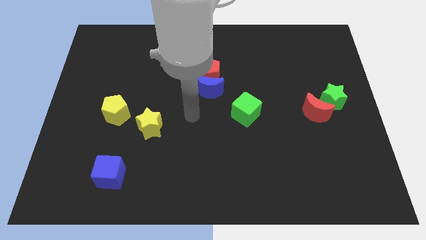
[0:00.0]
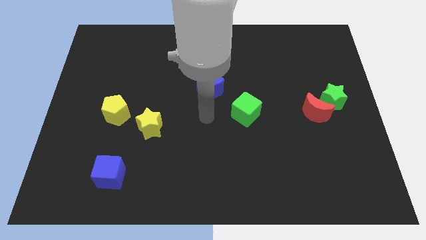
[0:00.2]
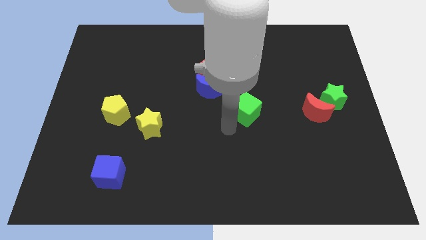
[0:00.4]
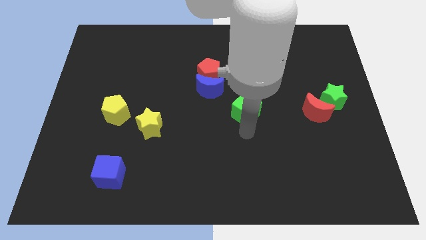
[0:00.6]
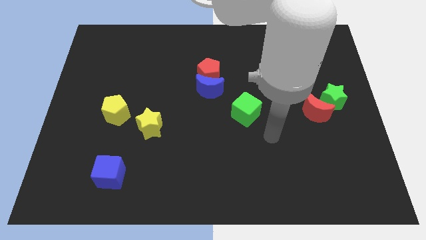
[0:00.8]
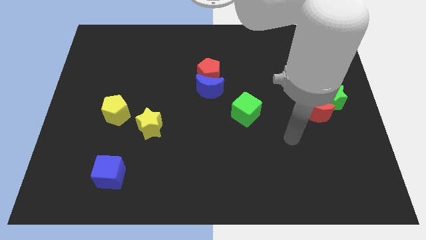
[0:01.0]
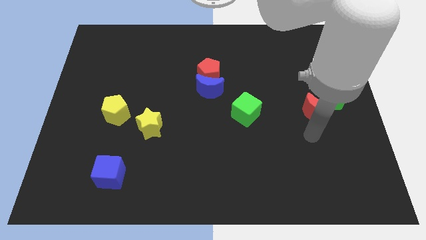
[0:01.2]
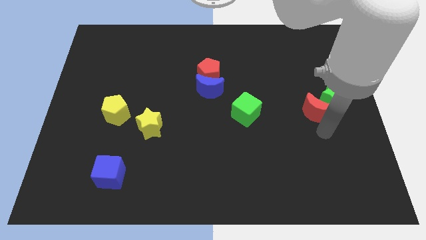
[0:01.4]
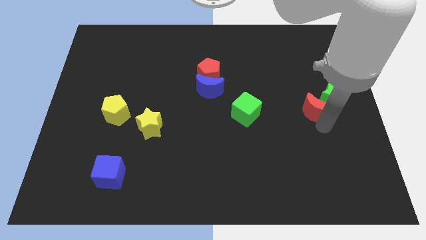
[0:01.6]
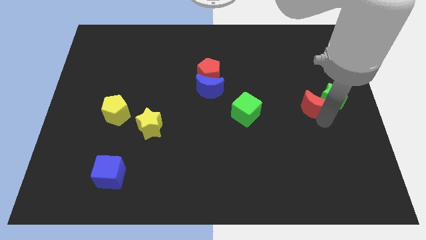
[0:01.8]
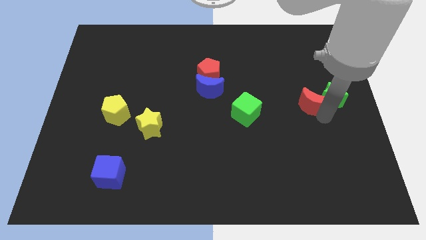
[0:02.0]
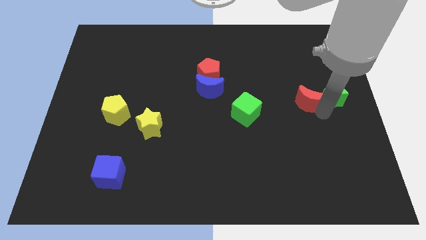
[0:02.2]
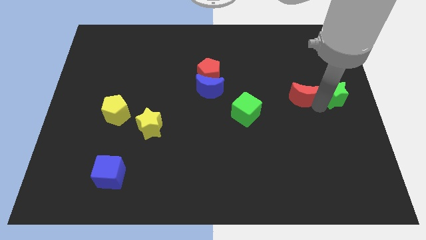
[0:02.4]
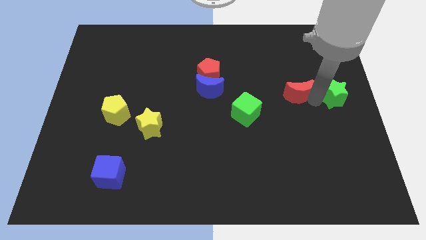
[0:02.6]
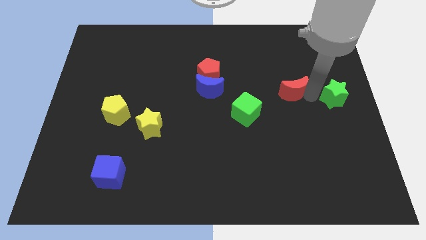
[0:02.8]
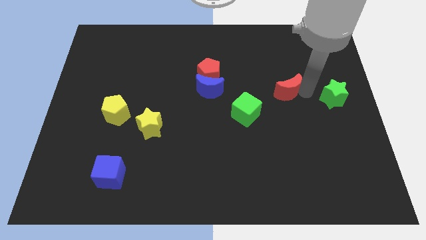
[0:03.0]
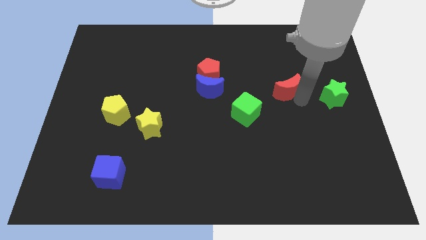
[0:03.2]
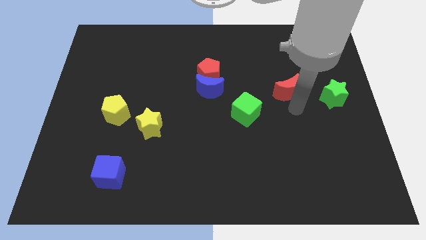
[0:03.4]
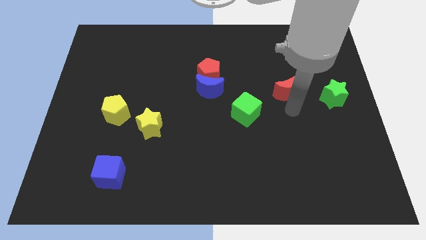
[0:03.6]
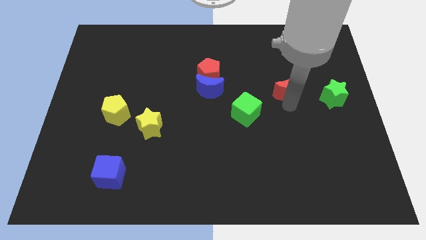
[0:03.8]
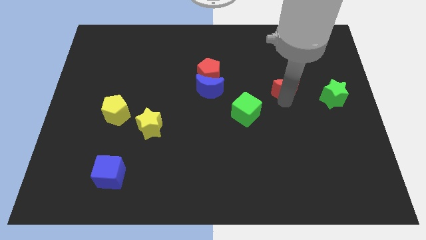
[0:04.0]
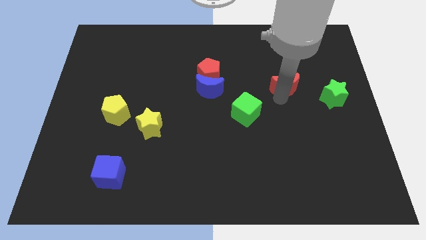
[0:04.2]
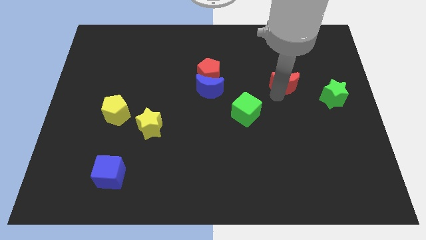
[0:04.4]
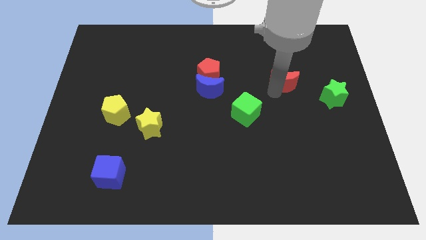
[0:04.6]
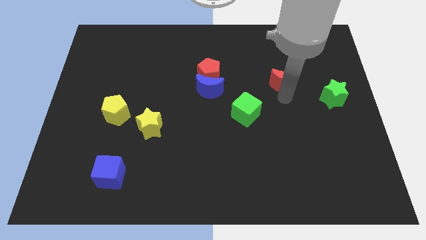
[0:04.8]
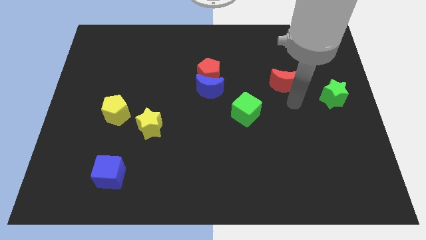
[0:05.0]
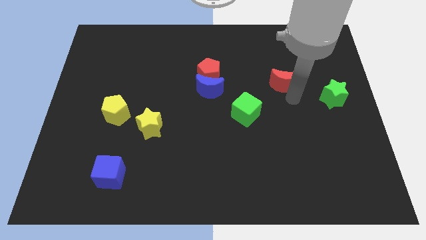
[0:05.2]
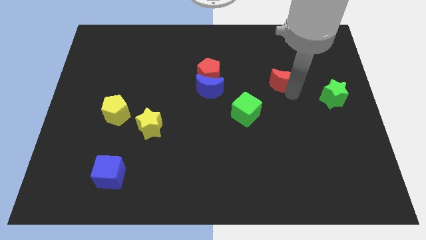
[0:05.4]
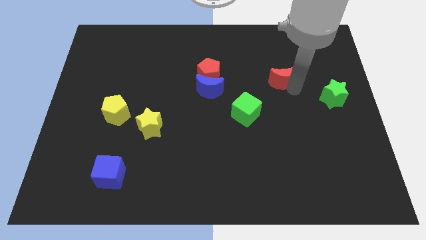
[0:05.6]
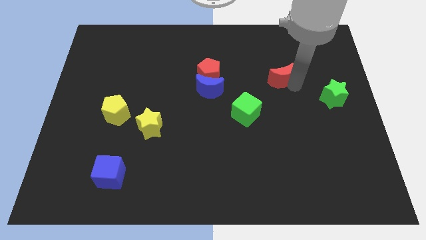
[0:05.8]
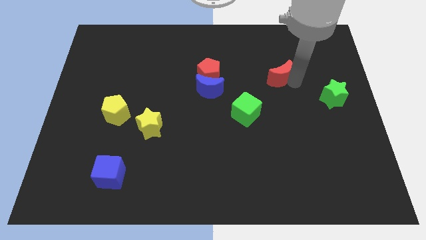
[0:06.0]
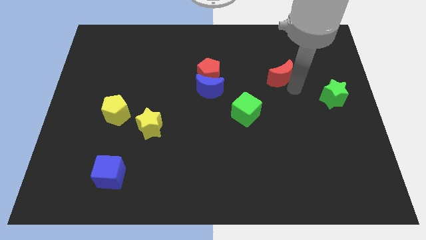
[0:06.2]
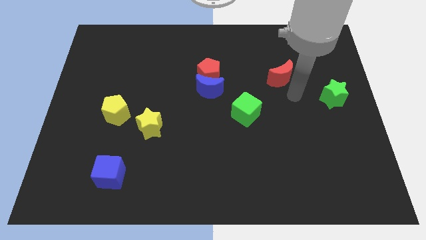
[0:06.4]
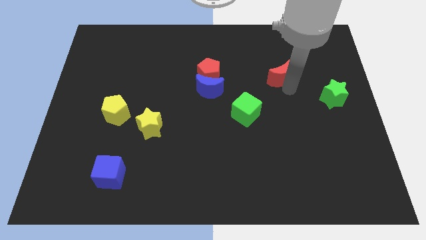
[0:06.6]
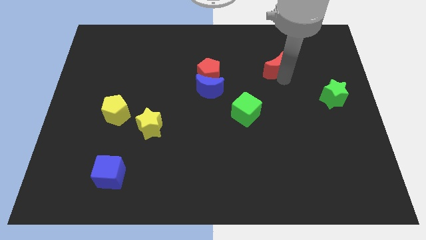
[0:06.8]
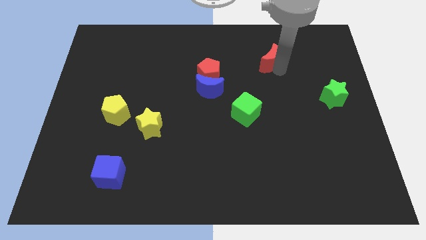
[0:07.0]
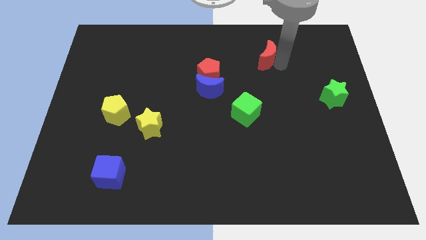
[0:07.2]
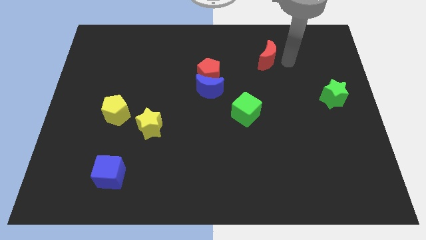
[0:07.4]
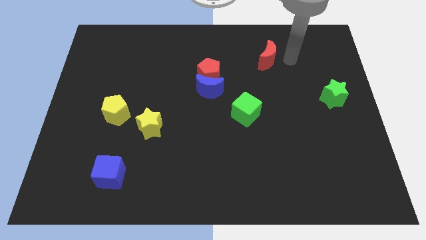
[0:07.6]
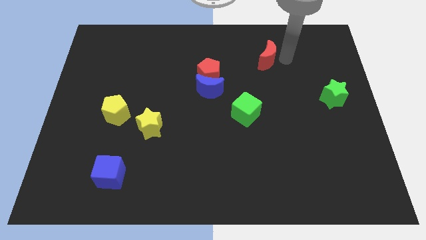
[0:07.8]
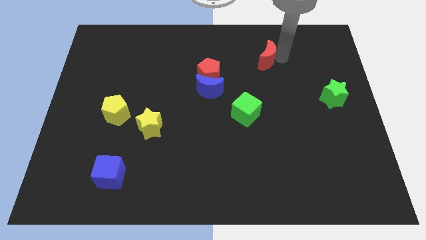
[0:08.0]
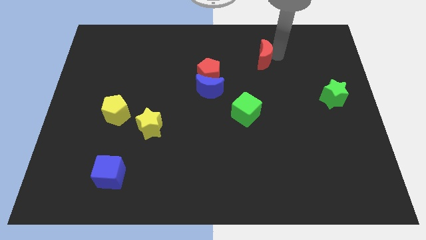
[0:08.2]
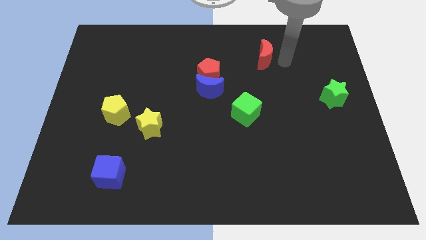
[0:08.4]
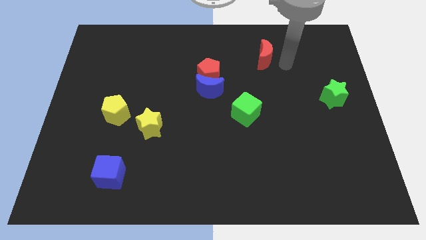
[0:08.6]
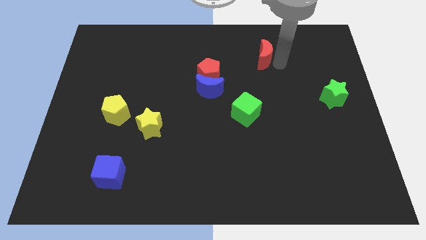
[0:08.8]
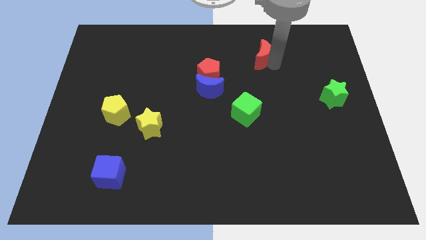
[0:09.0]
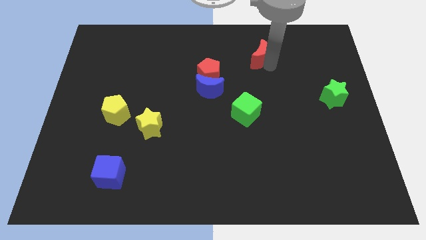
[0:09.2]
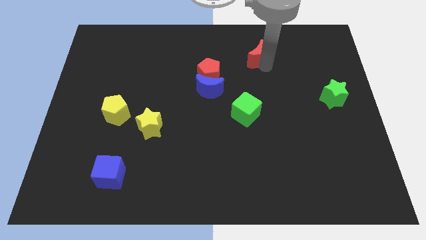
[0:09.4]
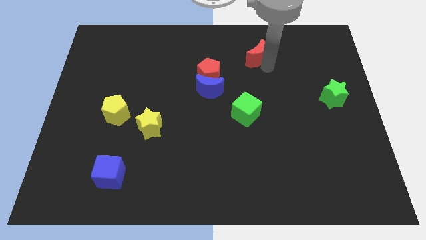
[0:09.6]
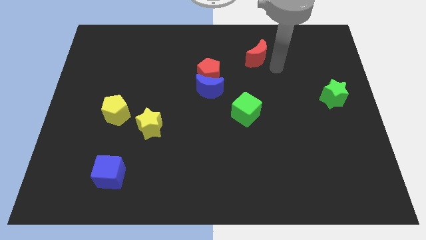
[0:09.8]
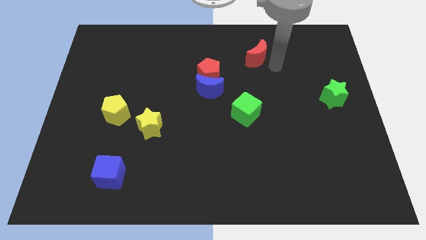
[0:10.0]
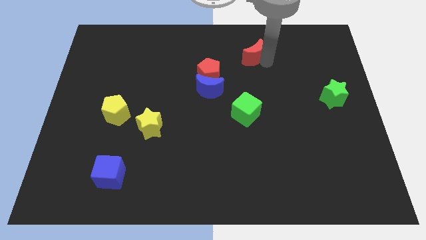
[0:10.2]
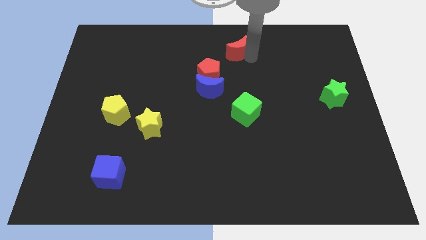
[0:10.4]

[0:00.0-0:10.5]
slide the red moon to the top side

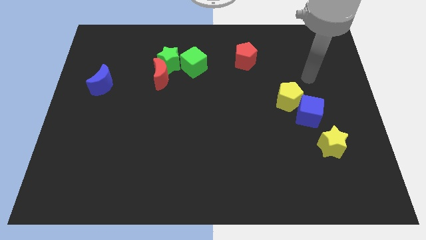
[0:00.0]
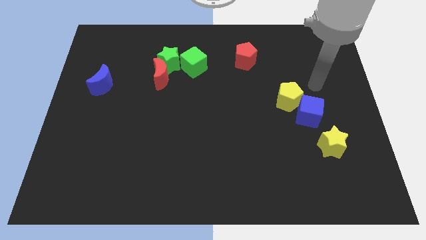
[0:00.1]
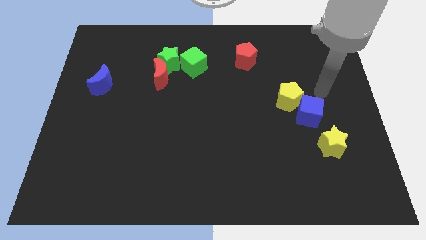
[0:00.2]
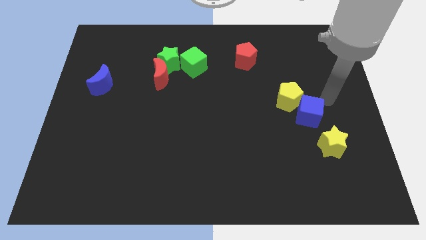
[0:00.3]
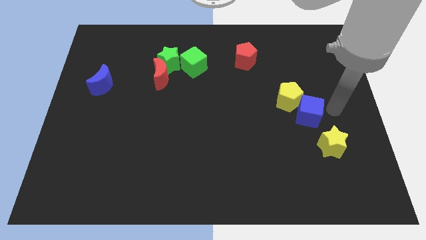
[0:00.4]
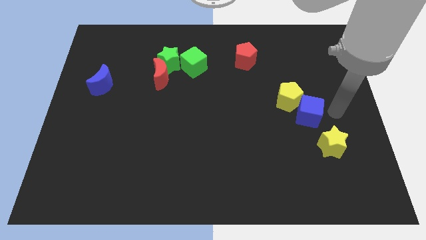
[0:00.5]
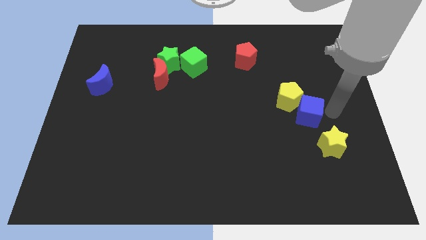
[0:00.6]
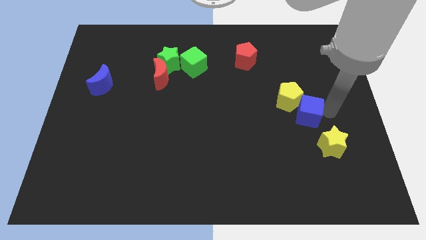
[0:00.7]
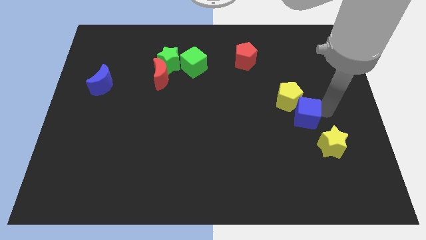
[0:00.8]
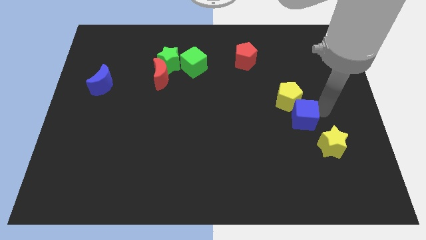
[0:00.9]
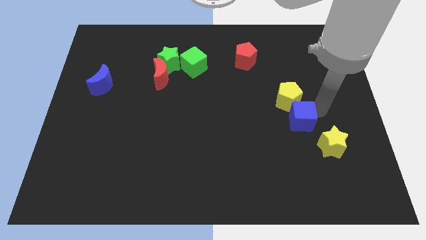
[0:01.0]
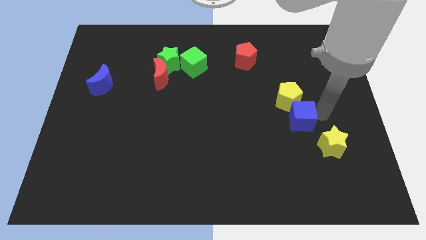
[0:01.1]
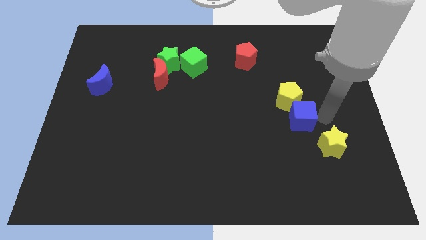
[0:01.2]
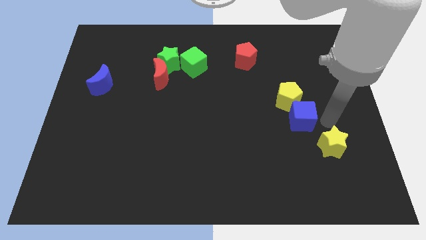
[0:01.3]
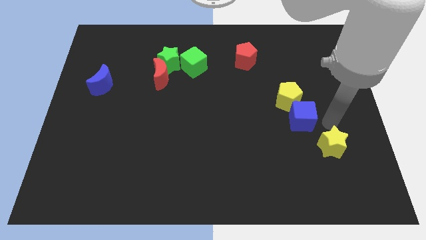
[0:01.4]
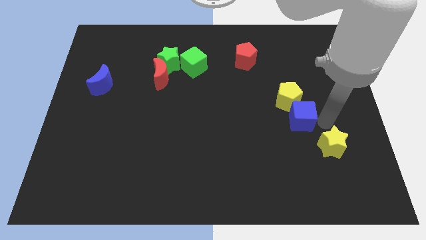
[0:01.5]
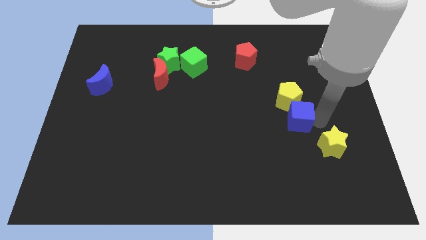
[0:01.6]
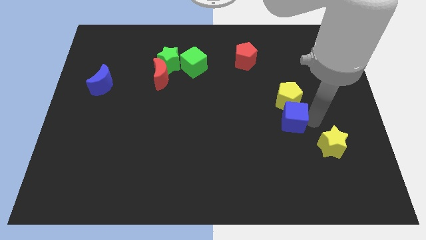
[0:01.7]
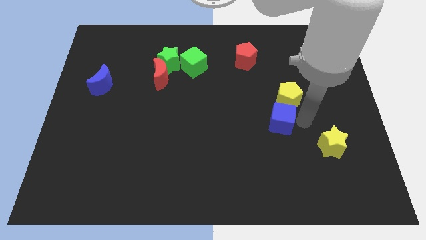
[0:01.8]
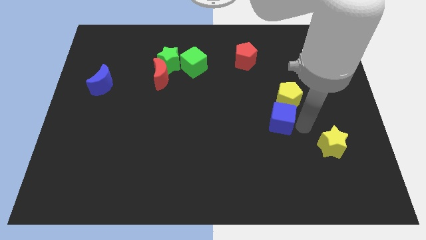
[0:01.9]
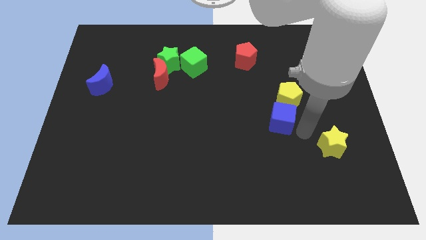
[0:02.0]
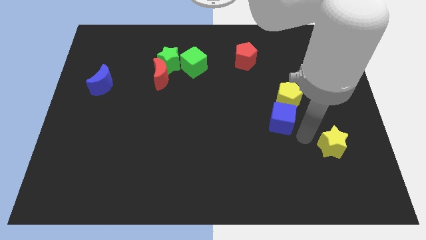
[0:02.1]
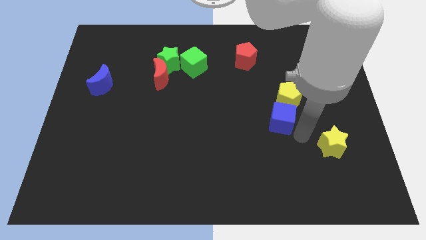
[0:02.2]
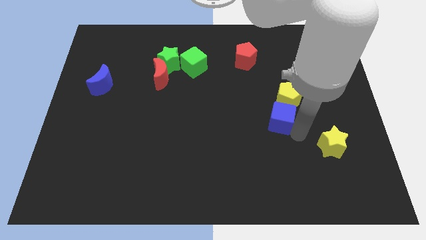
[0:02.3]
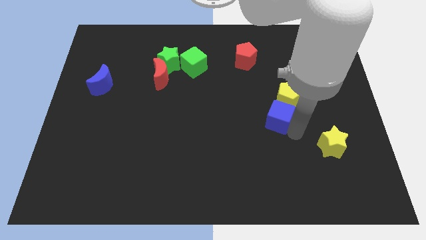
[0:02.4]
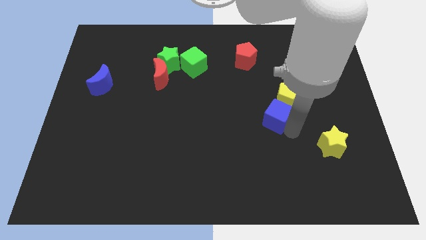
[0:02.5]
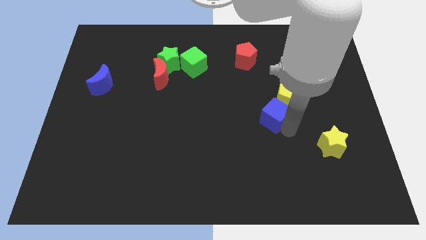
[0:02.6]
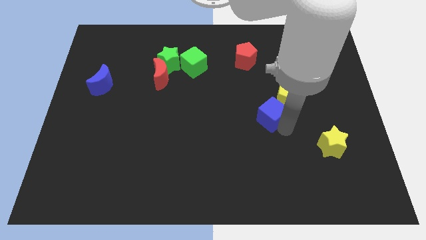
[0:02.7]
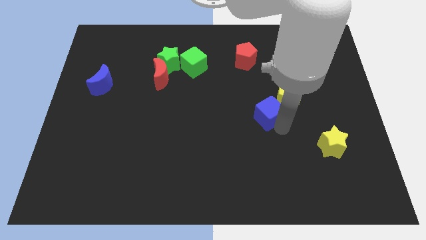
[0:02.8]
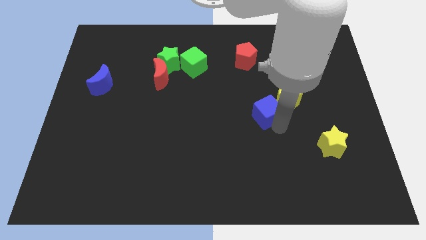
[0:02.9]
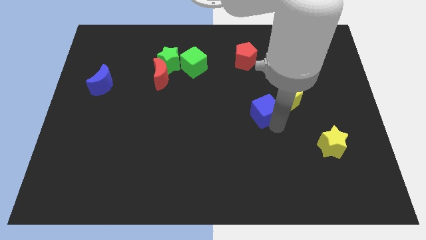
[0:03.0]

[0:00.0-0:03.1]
move the blue cube to the middle of the board
